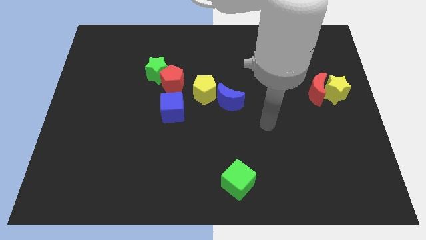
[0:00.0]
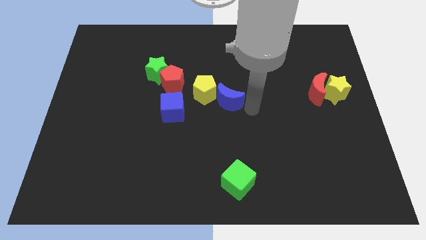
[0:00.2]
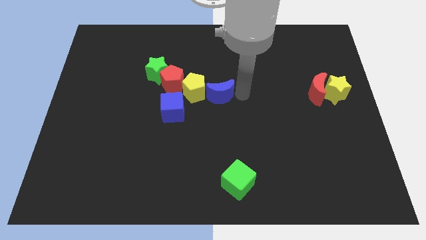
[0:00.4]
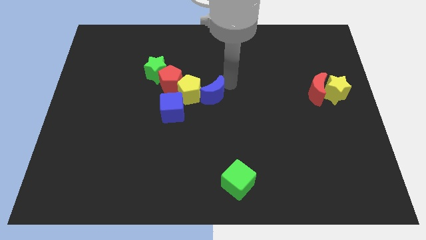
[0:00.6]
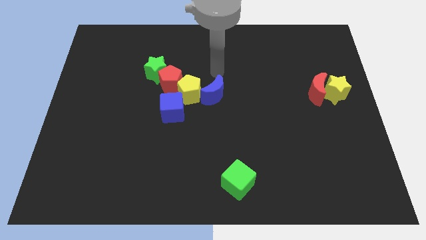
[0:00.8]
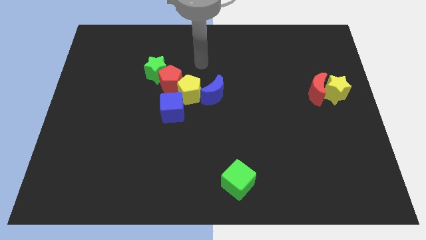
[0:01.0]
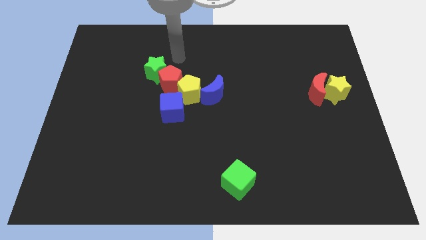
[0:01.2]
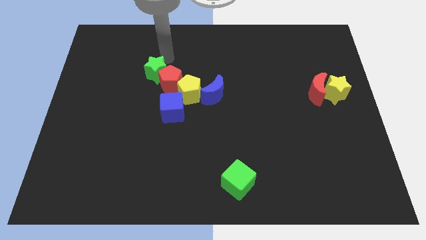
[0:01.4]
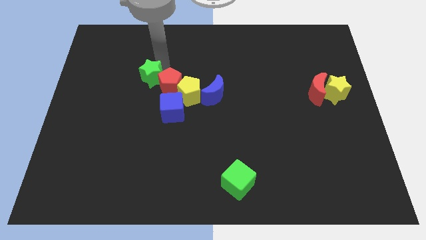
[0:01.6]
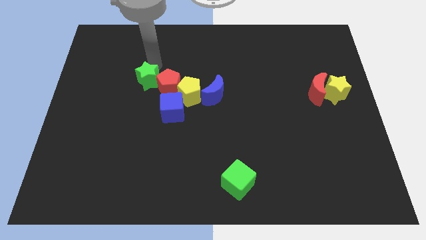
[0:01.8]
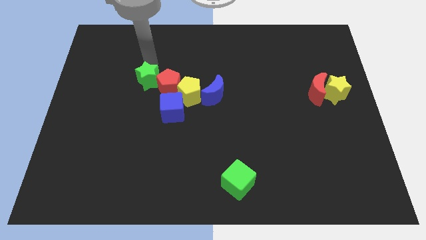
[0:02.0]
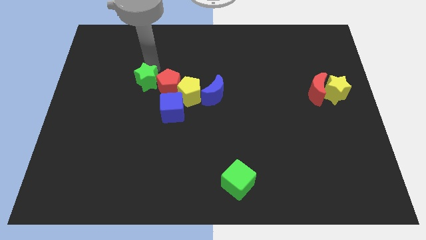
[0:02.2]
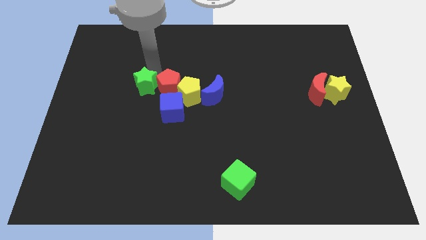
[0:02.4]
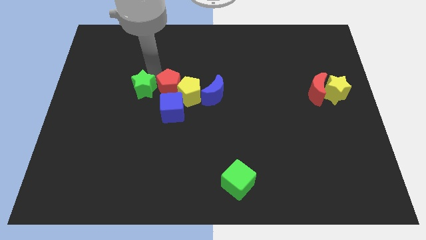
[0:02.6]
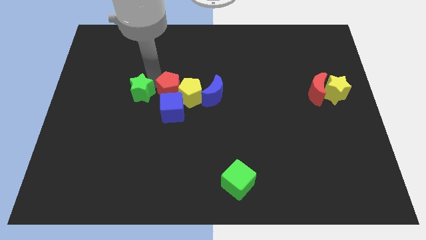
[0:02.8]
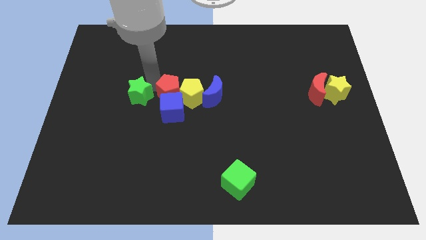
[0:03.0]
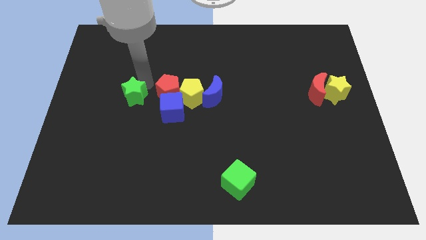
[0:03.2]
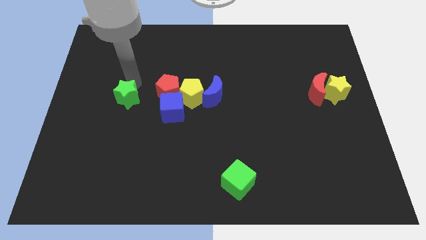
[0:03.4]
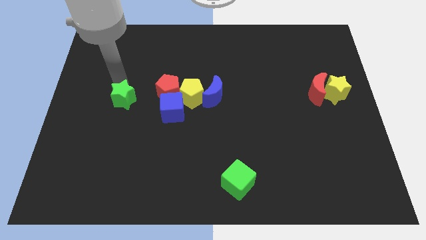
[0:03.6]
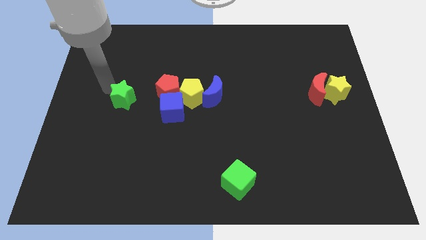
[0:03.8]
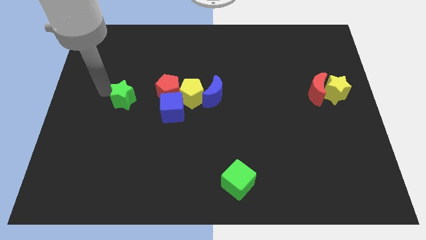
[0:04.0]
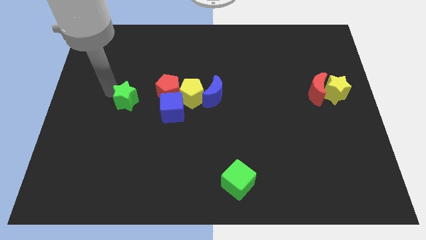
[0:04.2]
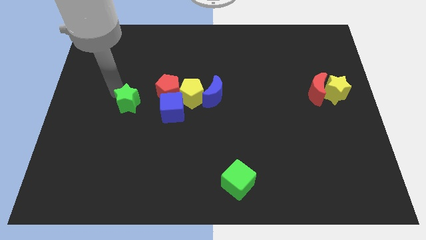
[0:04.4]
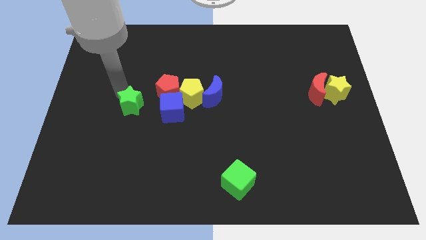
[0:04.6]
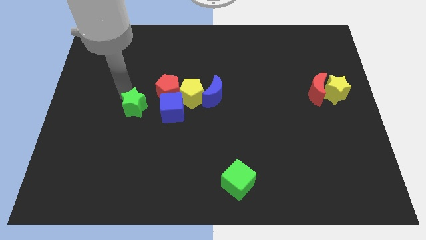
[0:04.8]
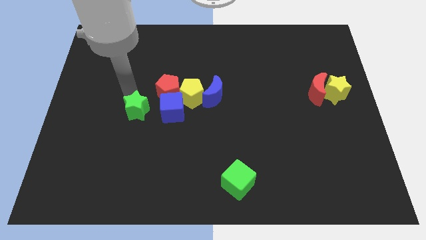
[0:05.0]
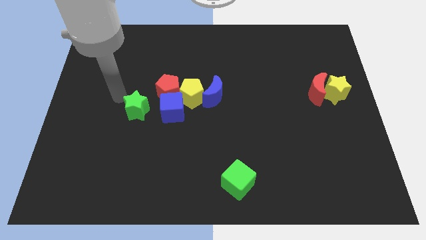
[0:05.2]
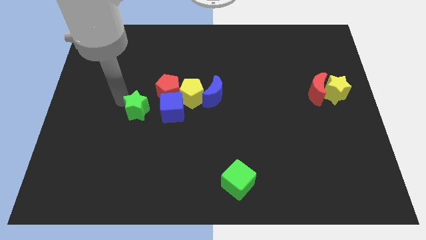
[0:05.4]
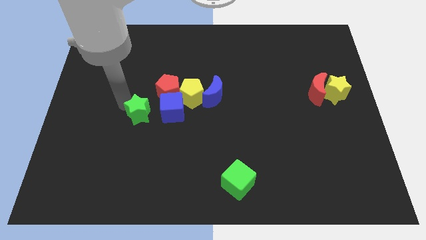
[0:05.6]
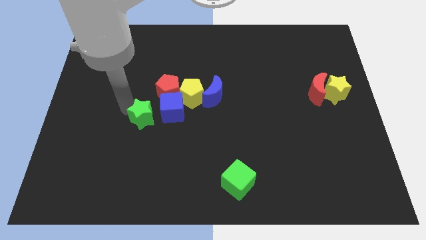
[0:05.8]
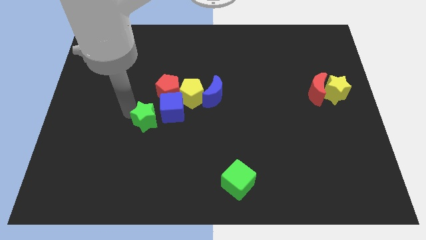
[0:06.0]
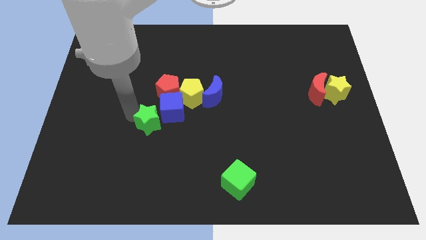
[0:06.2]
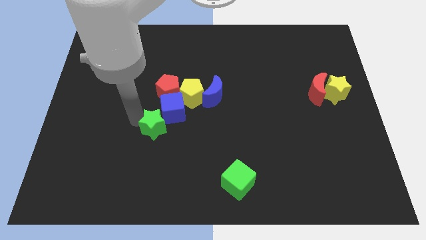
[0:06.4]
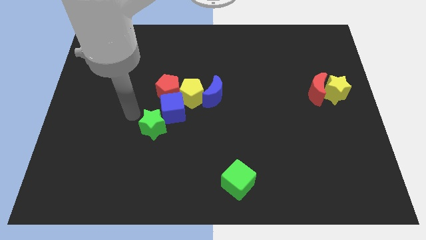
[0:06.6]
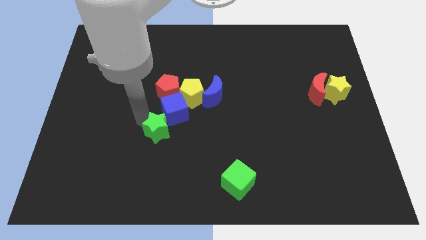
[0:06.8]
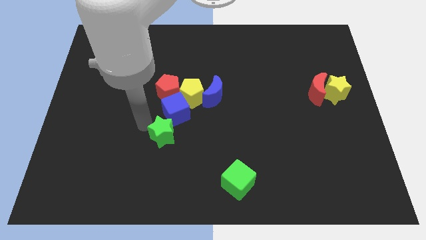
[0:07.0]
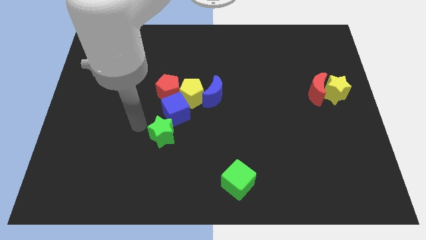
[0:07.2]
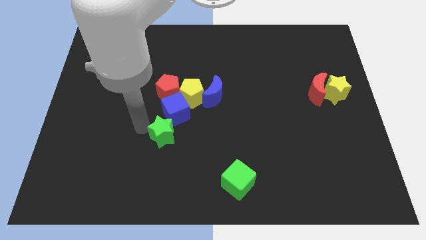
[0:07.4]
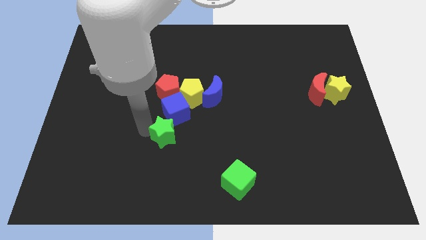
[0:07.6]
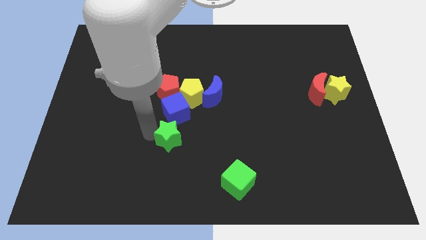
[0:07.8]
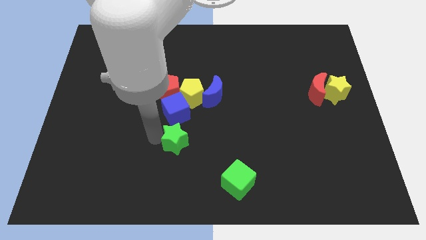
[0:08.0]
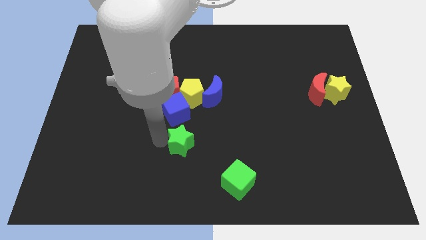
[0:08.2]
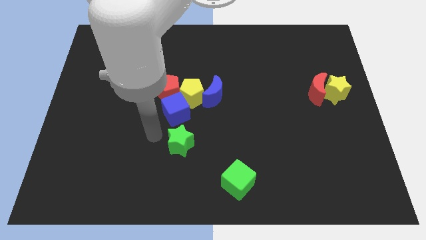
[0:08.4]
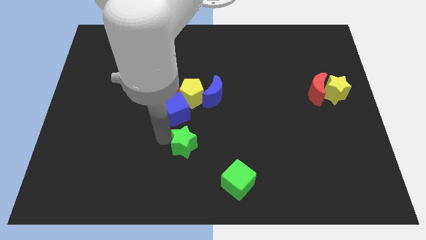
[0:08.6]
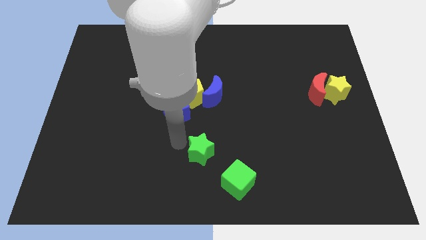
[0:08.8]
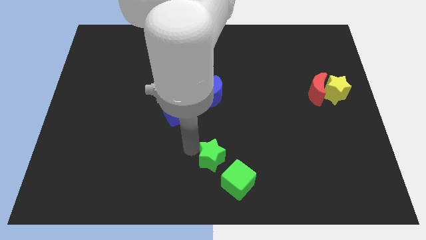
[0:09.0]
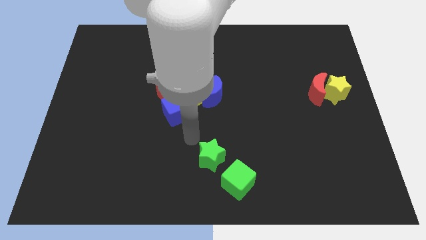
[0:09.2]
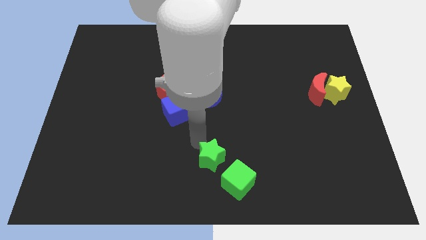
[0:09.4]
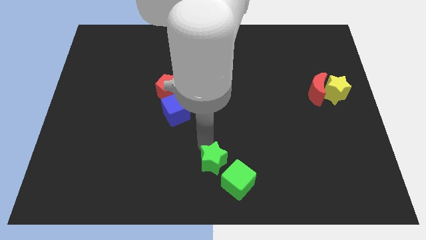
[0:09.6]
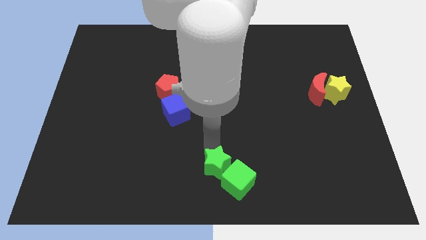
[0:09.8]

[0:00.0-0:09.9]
put the green star to the green cube

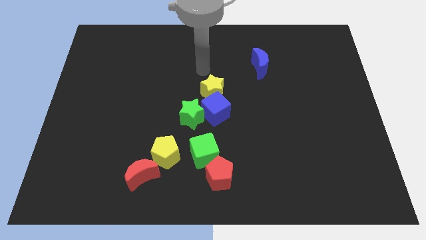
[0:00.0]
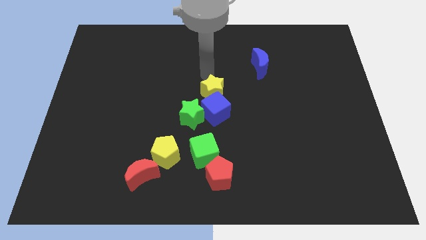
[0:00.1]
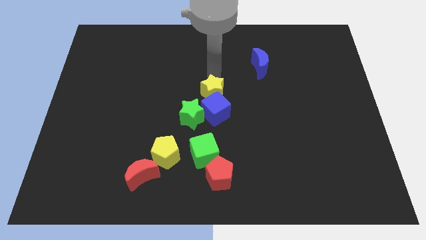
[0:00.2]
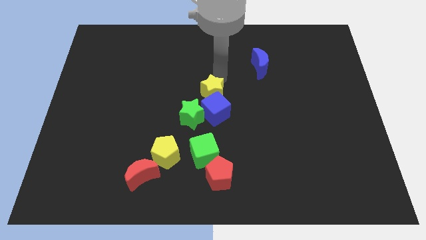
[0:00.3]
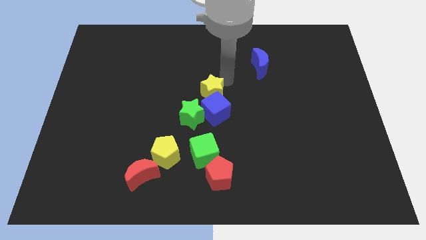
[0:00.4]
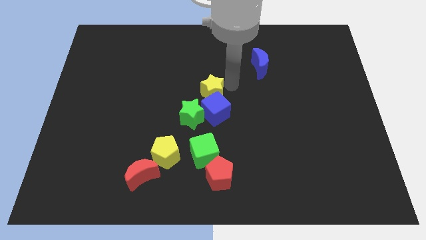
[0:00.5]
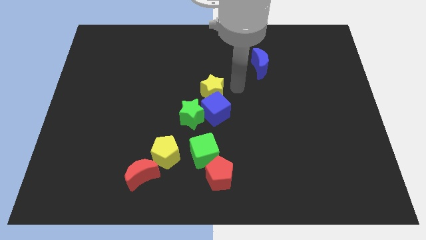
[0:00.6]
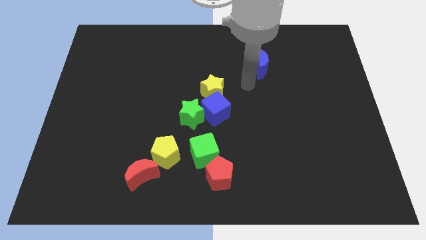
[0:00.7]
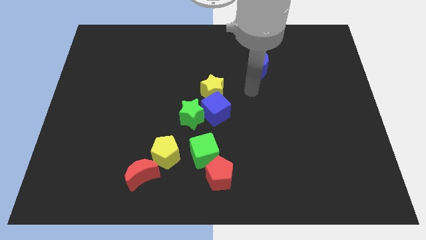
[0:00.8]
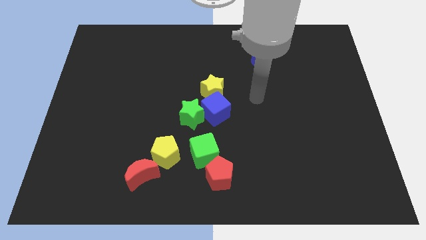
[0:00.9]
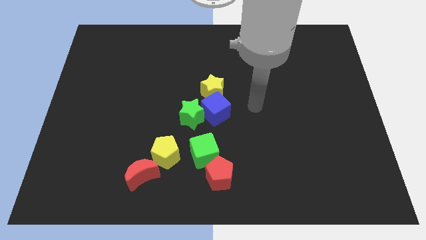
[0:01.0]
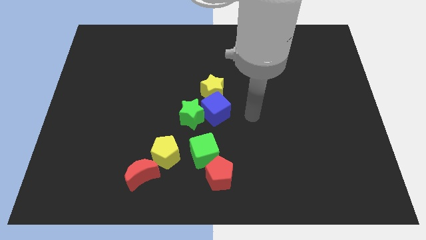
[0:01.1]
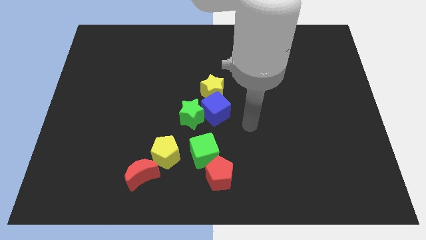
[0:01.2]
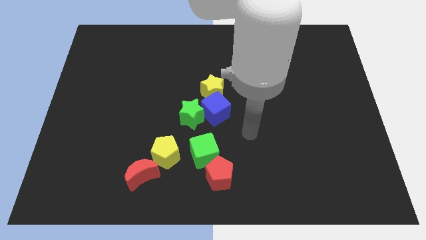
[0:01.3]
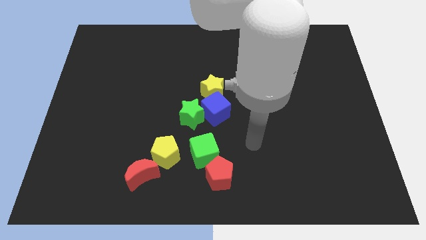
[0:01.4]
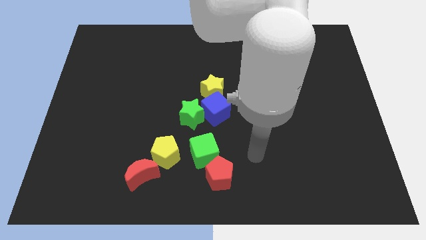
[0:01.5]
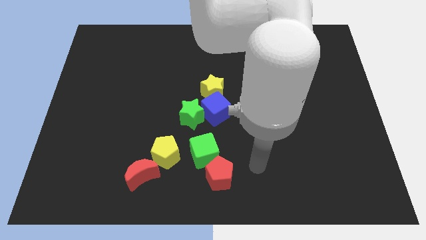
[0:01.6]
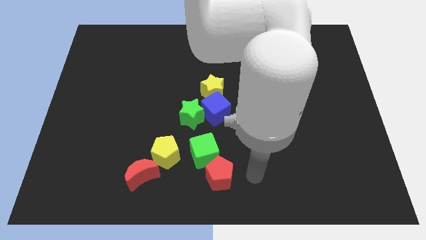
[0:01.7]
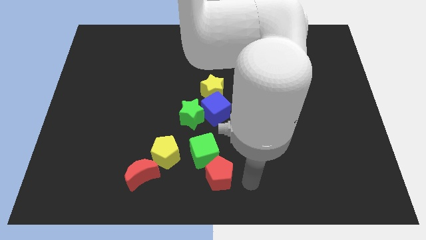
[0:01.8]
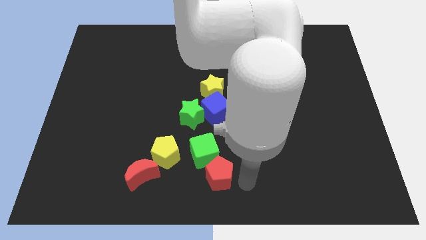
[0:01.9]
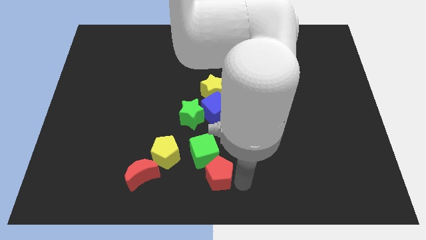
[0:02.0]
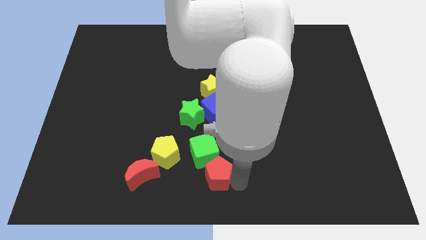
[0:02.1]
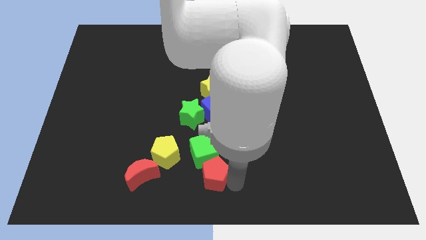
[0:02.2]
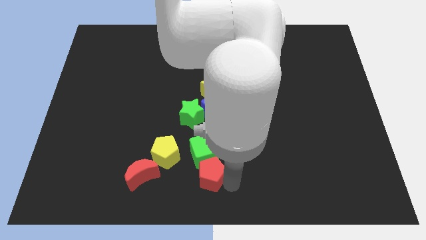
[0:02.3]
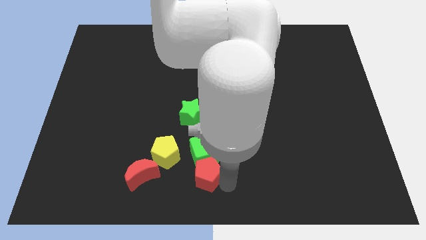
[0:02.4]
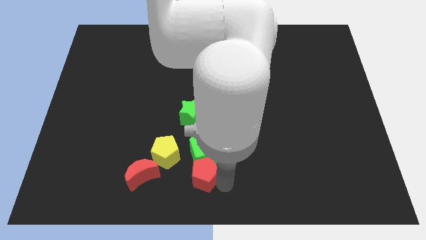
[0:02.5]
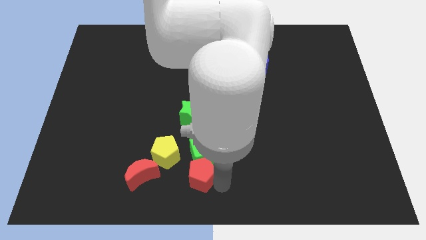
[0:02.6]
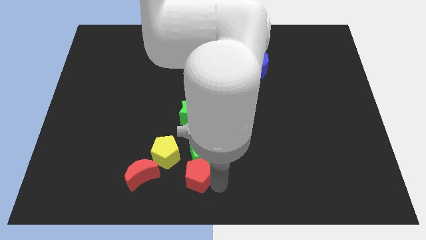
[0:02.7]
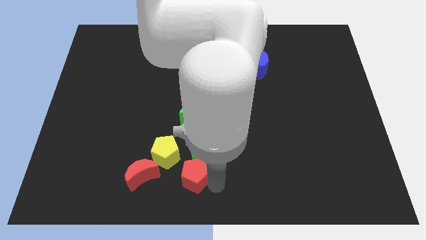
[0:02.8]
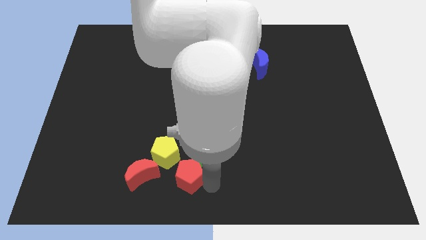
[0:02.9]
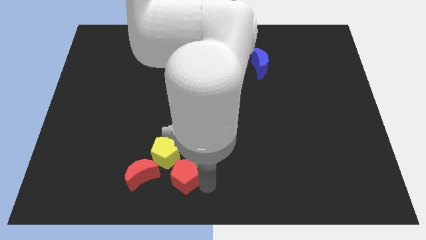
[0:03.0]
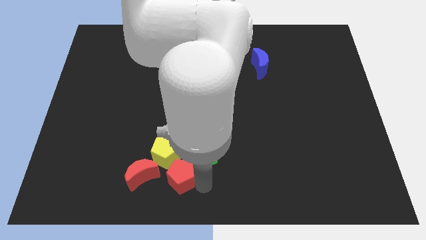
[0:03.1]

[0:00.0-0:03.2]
move the red pentagon towards the yellow pentagon
